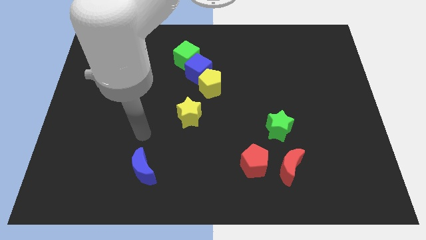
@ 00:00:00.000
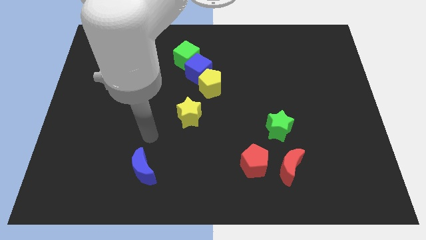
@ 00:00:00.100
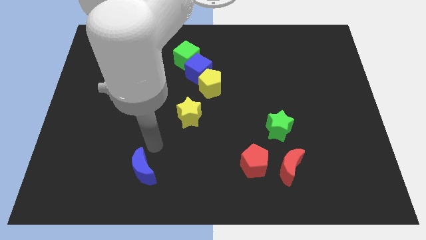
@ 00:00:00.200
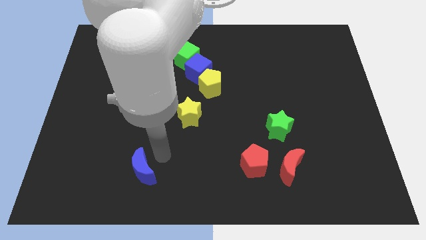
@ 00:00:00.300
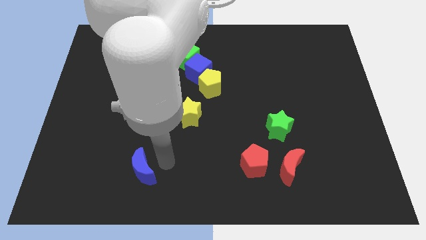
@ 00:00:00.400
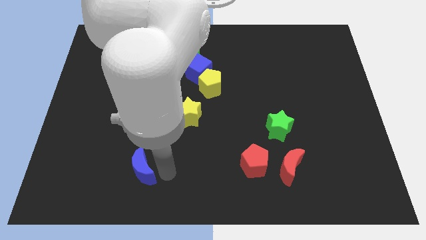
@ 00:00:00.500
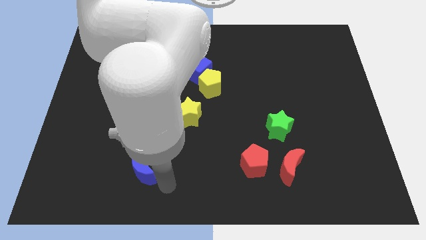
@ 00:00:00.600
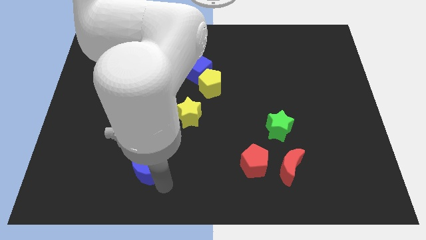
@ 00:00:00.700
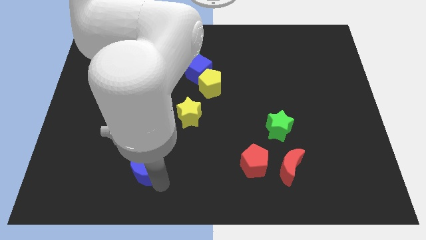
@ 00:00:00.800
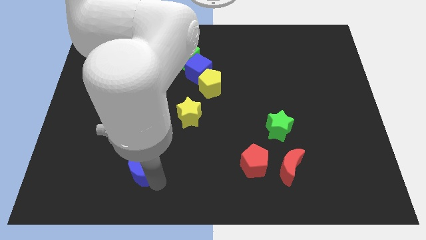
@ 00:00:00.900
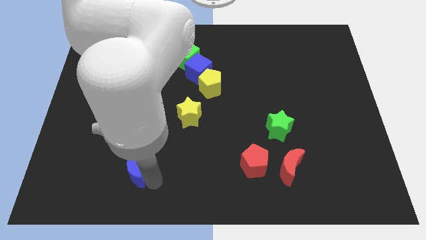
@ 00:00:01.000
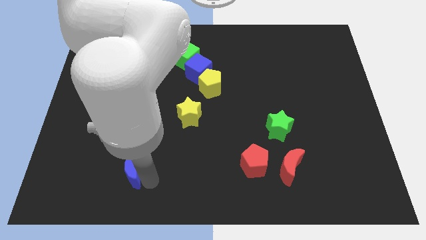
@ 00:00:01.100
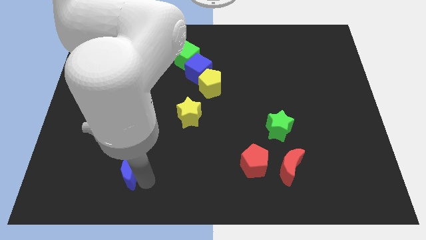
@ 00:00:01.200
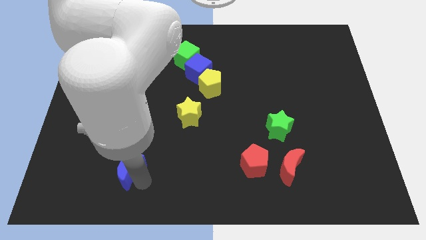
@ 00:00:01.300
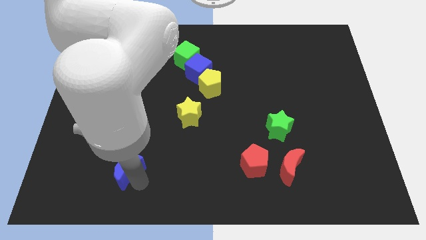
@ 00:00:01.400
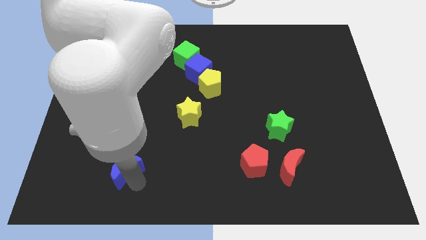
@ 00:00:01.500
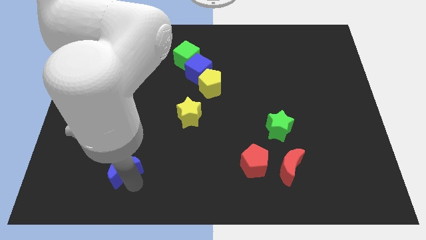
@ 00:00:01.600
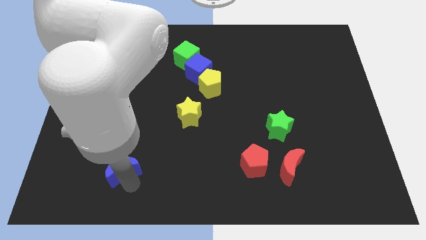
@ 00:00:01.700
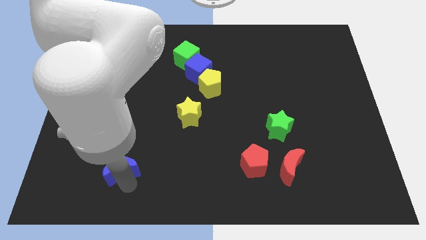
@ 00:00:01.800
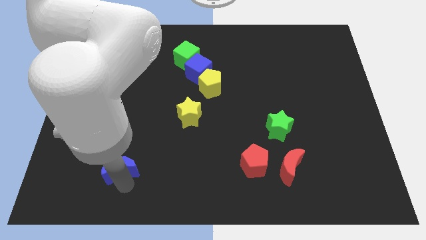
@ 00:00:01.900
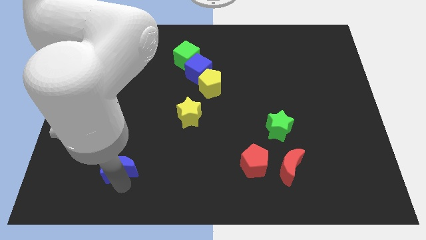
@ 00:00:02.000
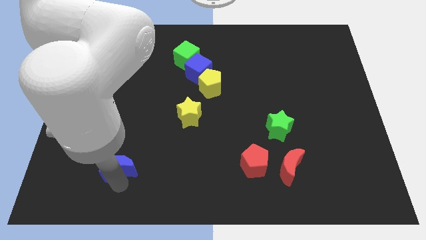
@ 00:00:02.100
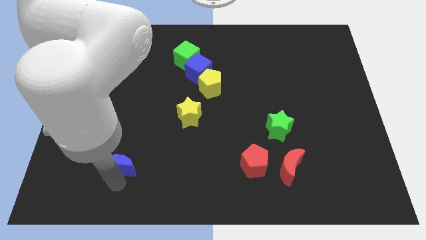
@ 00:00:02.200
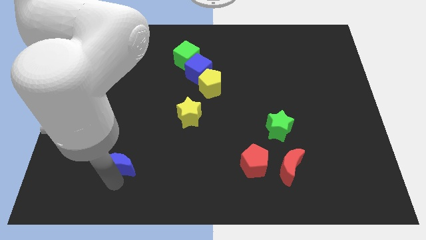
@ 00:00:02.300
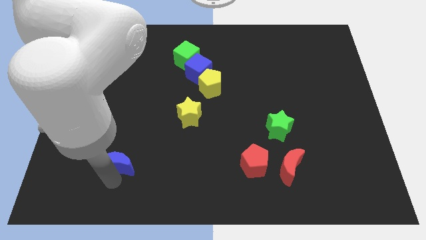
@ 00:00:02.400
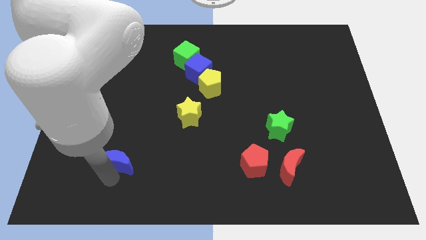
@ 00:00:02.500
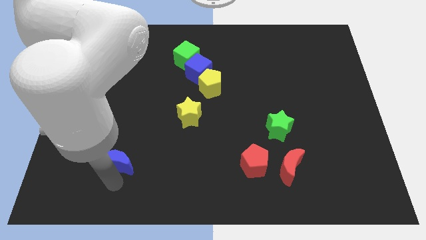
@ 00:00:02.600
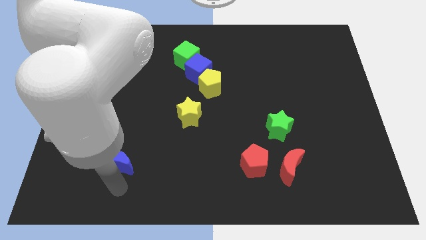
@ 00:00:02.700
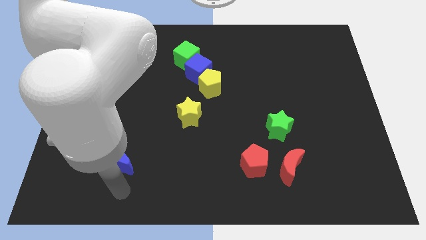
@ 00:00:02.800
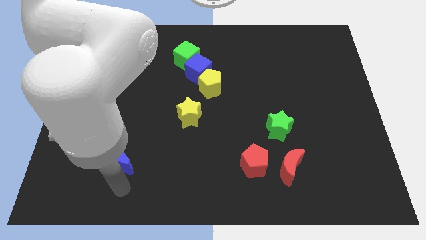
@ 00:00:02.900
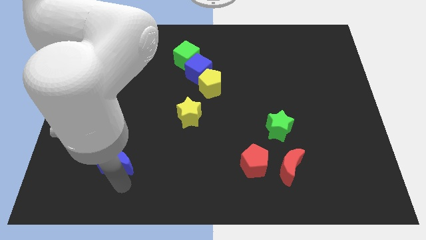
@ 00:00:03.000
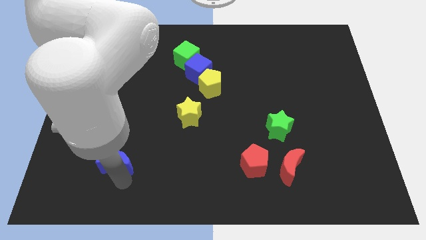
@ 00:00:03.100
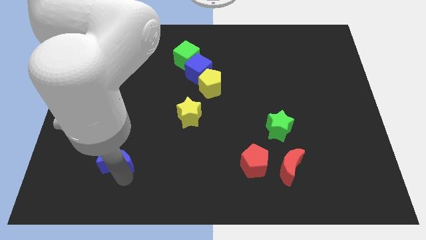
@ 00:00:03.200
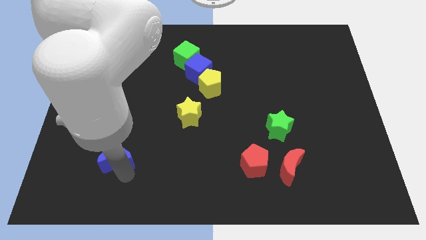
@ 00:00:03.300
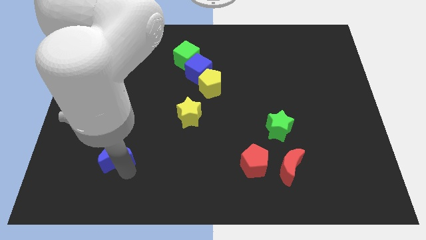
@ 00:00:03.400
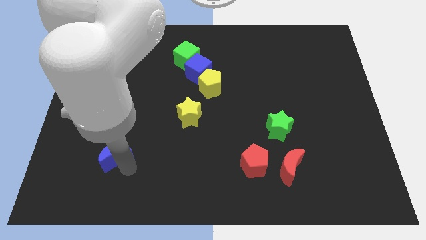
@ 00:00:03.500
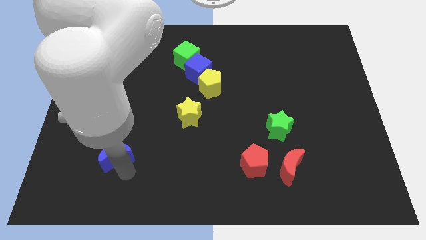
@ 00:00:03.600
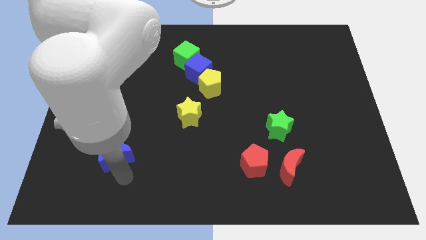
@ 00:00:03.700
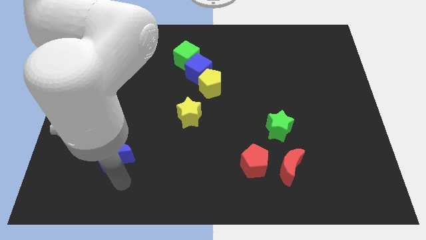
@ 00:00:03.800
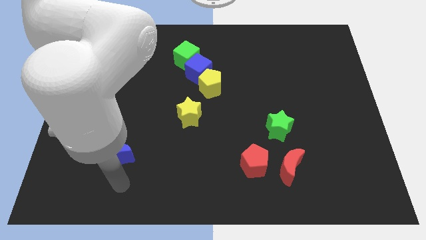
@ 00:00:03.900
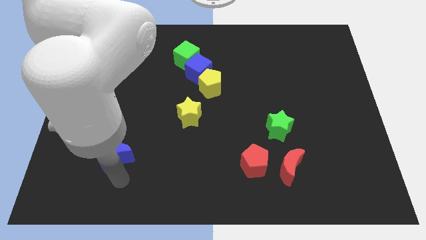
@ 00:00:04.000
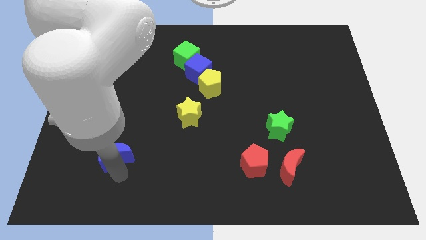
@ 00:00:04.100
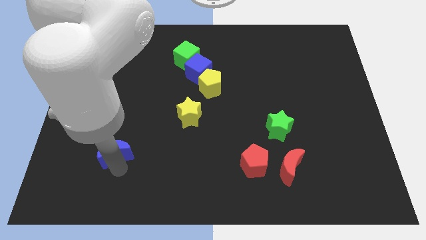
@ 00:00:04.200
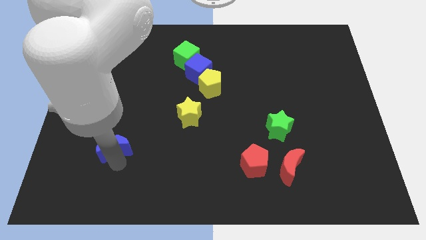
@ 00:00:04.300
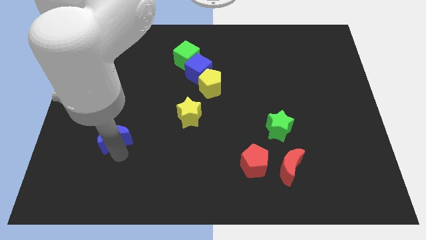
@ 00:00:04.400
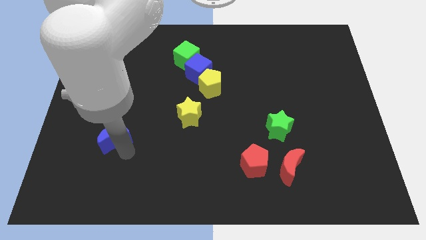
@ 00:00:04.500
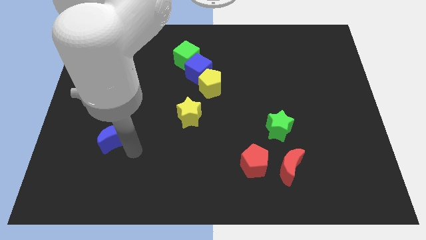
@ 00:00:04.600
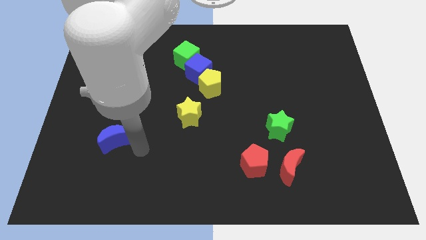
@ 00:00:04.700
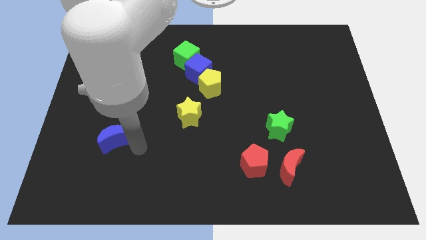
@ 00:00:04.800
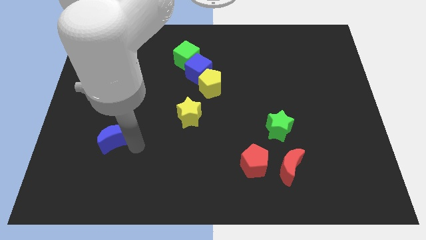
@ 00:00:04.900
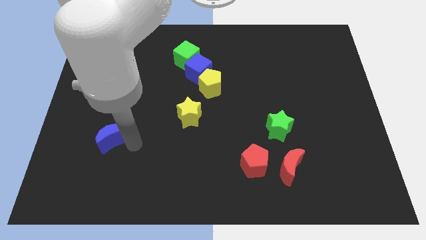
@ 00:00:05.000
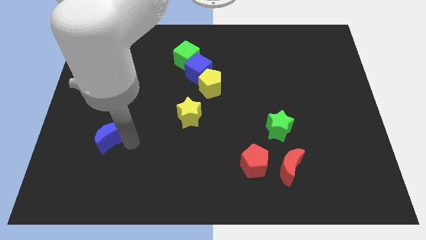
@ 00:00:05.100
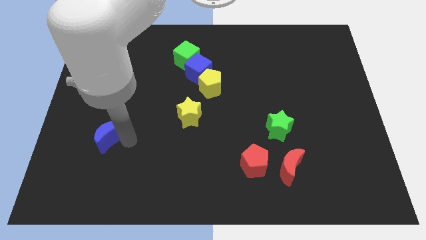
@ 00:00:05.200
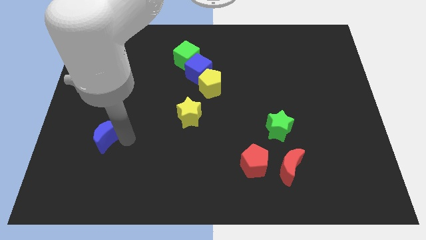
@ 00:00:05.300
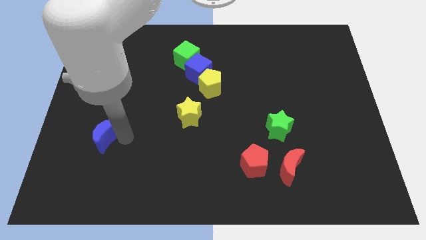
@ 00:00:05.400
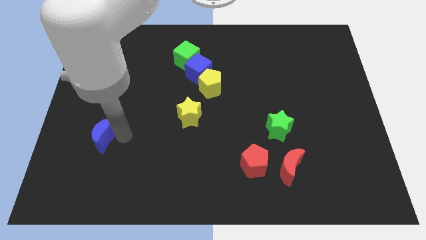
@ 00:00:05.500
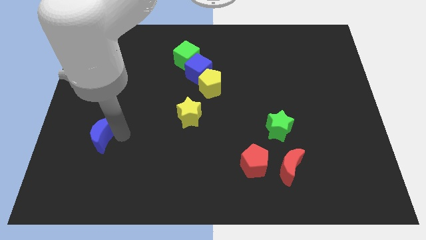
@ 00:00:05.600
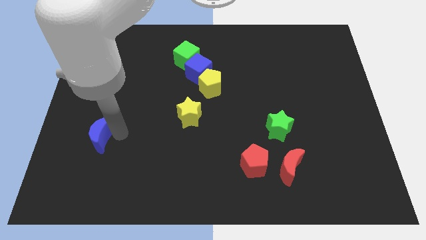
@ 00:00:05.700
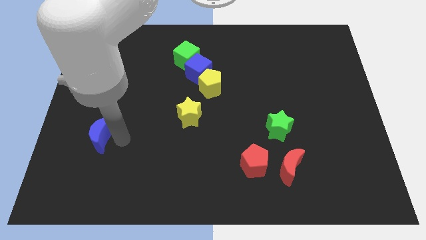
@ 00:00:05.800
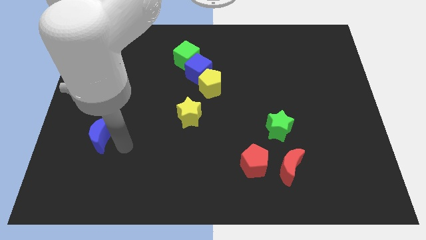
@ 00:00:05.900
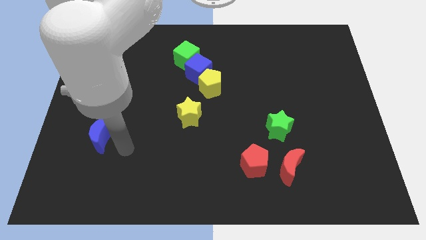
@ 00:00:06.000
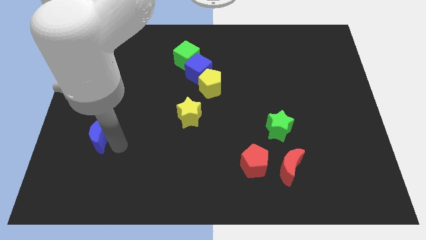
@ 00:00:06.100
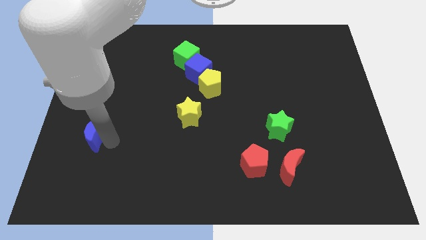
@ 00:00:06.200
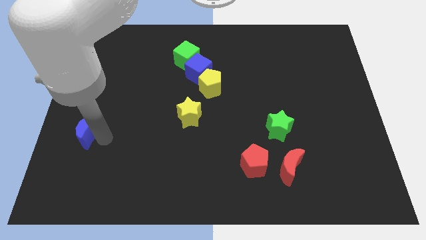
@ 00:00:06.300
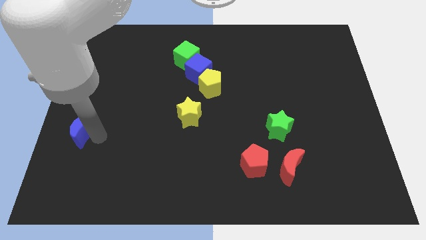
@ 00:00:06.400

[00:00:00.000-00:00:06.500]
slide the blue moon to the left side
